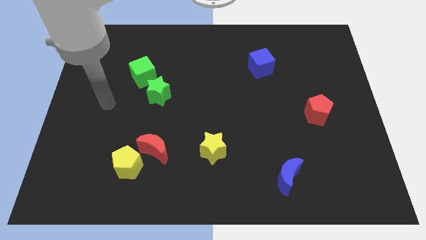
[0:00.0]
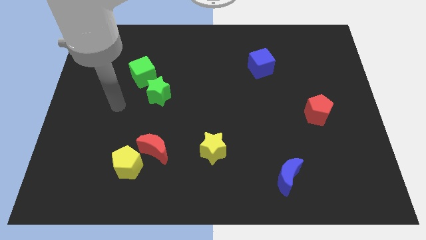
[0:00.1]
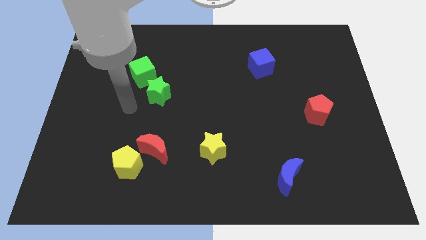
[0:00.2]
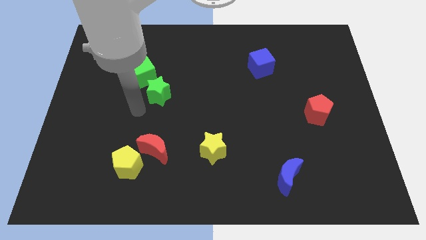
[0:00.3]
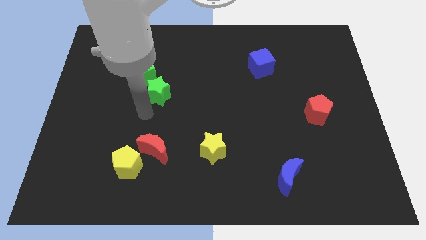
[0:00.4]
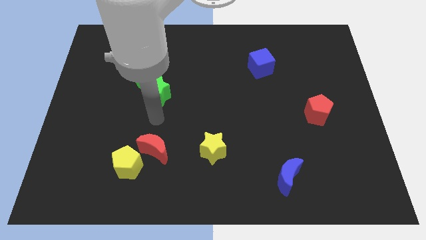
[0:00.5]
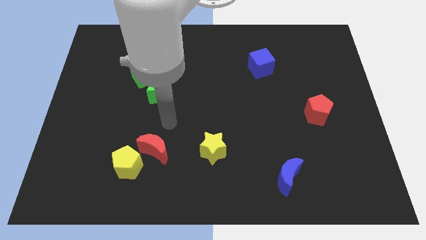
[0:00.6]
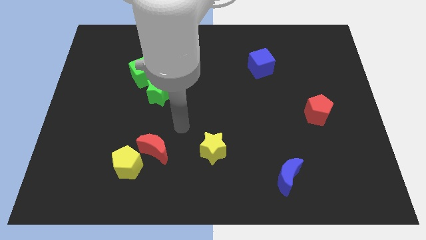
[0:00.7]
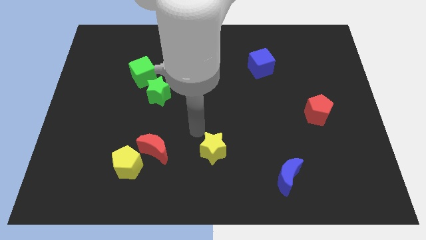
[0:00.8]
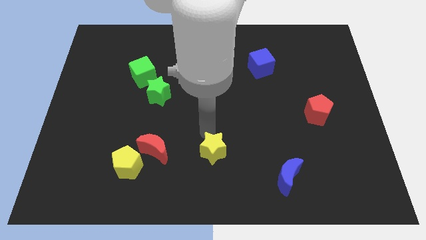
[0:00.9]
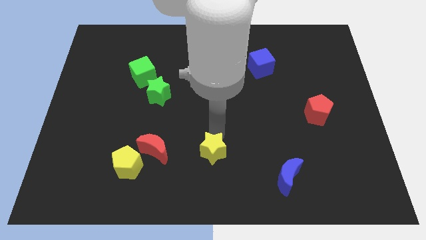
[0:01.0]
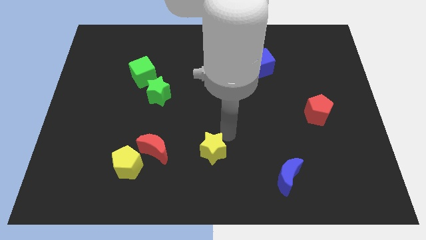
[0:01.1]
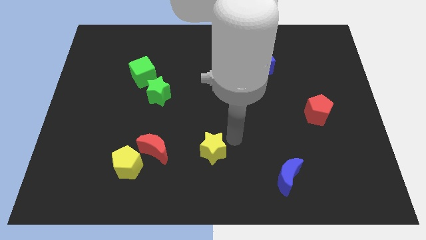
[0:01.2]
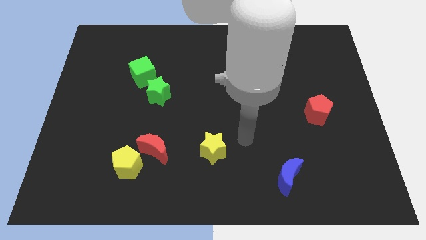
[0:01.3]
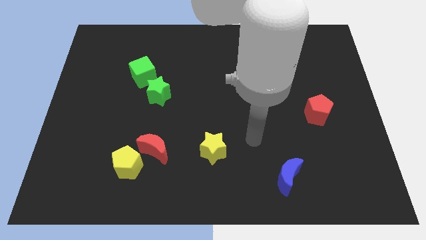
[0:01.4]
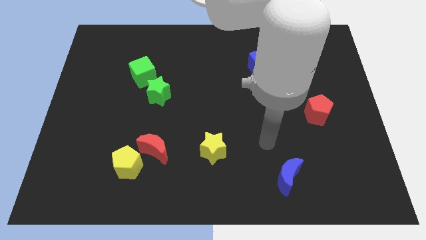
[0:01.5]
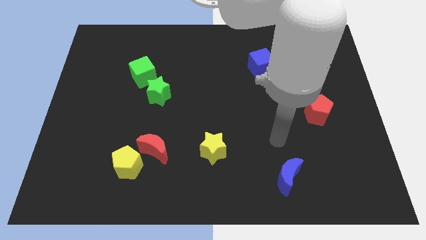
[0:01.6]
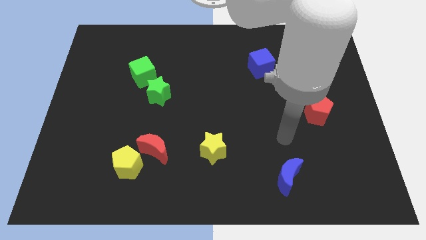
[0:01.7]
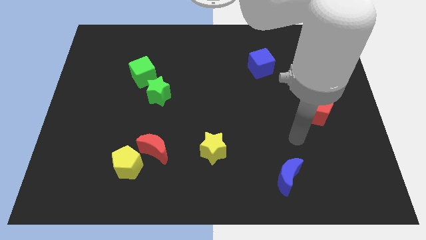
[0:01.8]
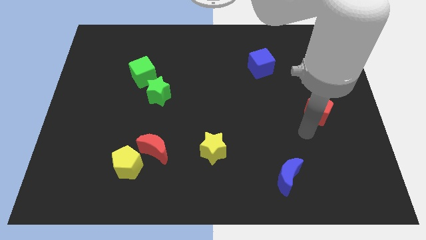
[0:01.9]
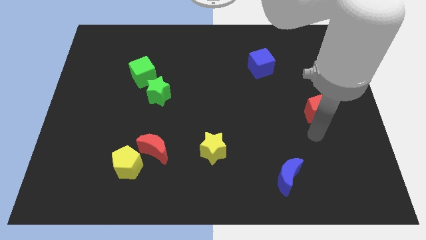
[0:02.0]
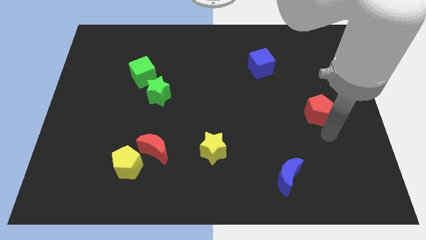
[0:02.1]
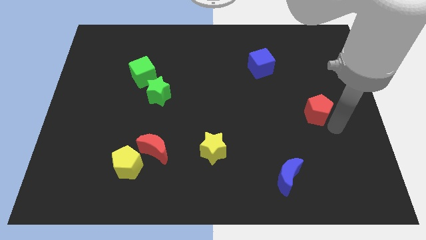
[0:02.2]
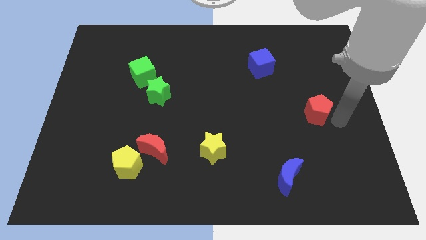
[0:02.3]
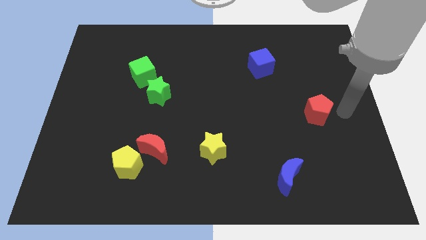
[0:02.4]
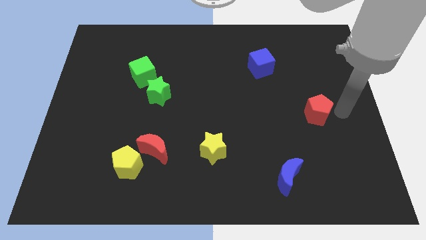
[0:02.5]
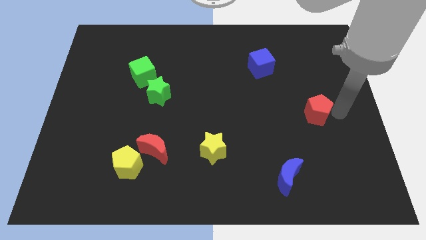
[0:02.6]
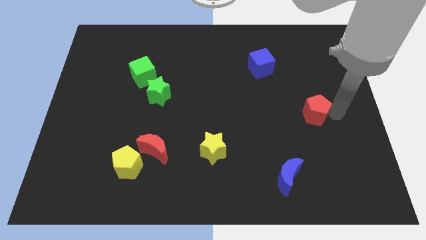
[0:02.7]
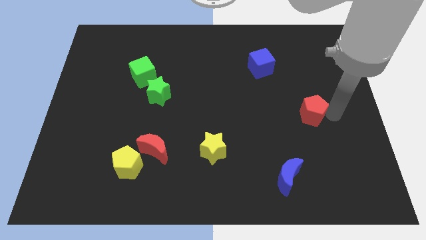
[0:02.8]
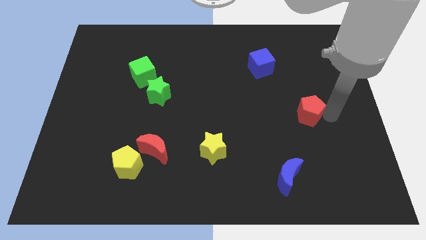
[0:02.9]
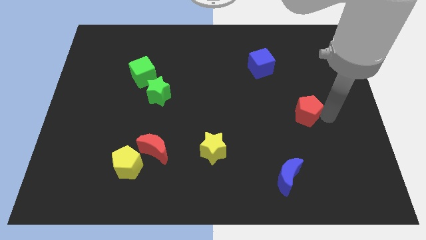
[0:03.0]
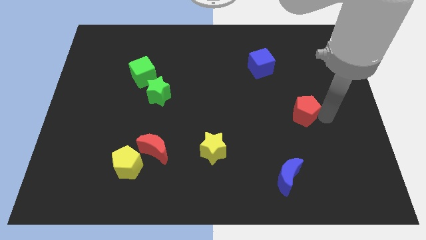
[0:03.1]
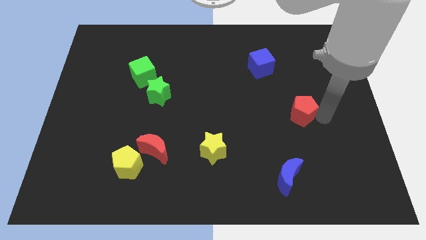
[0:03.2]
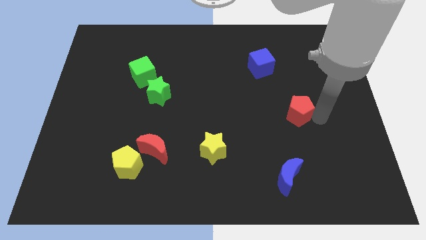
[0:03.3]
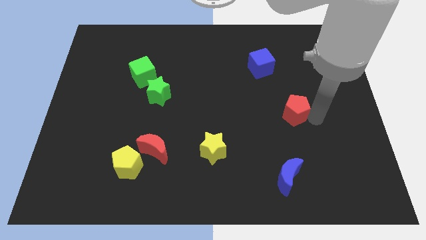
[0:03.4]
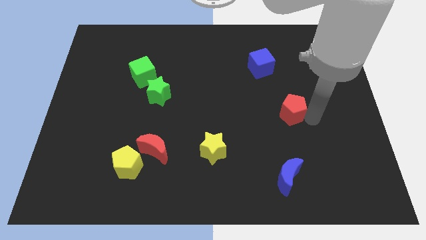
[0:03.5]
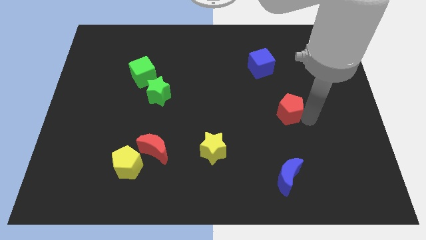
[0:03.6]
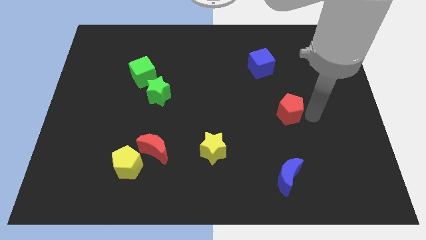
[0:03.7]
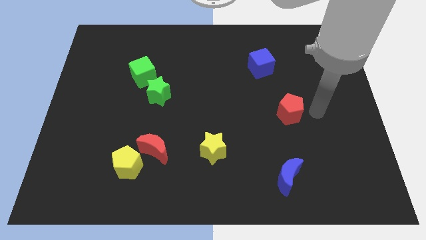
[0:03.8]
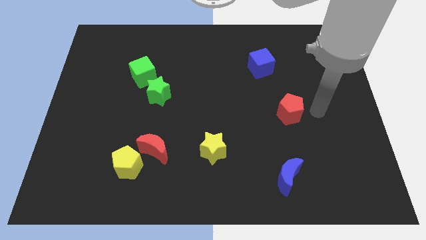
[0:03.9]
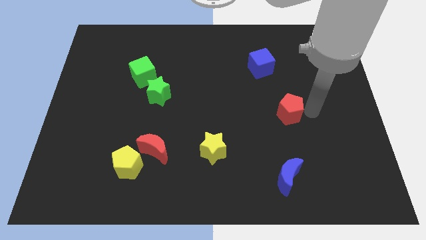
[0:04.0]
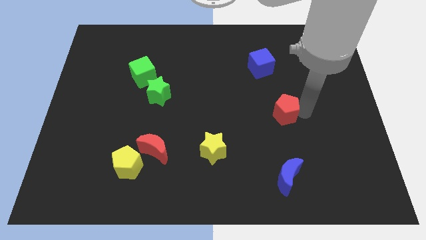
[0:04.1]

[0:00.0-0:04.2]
slightly push the red pentagon to the left

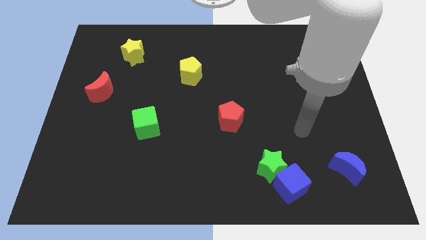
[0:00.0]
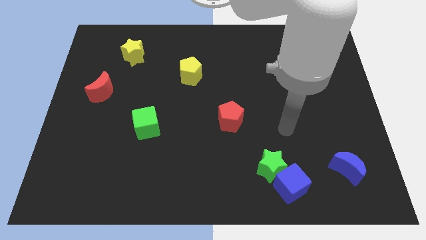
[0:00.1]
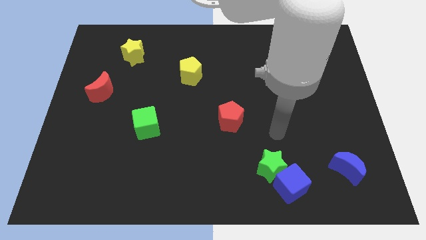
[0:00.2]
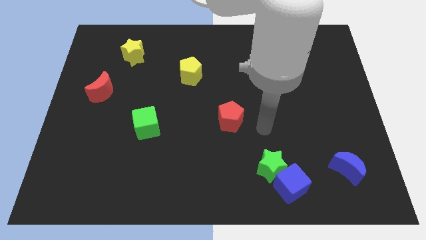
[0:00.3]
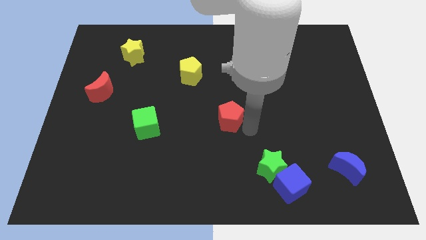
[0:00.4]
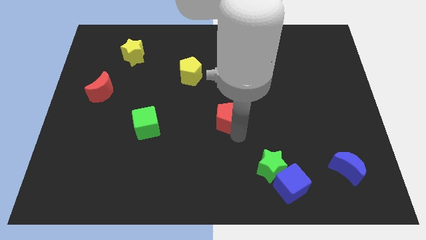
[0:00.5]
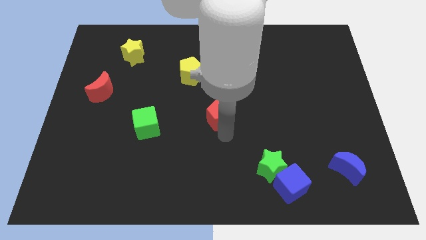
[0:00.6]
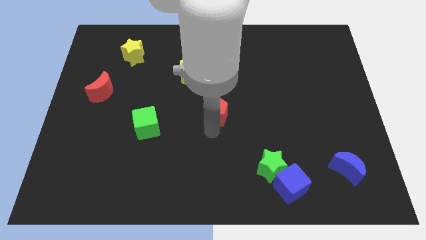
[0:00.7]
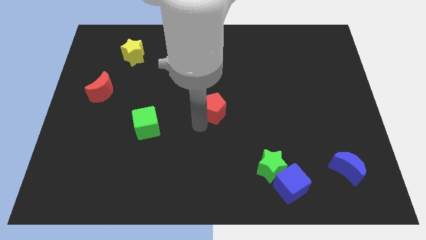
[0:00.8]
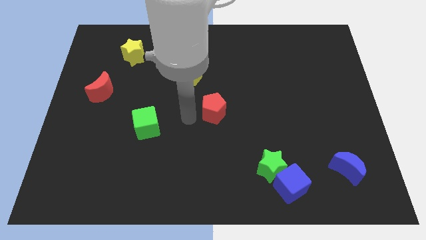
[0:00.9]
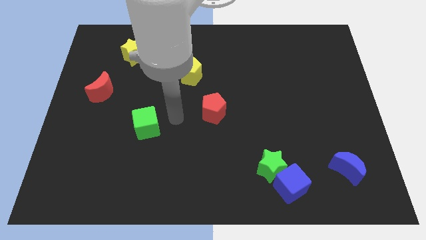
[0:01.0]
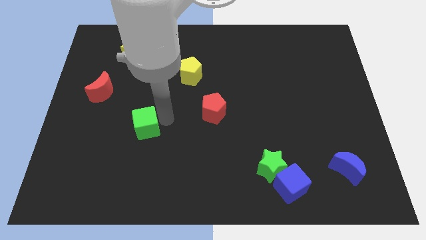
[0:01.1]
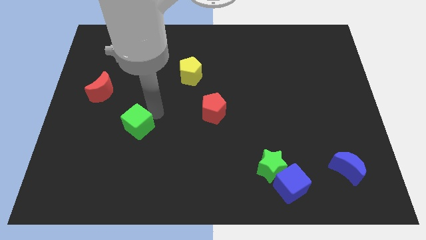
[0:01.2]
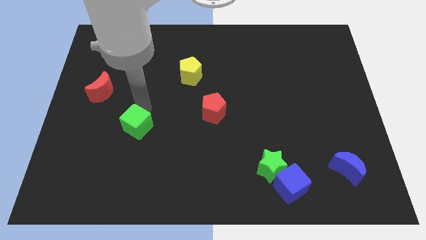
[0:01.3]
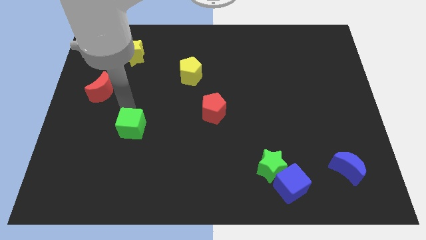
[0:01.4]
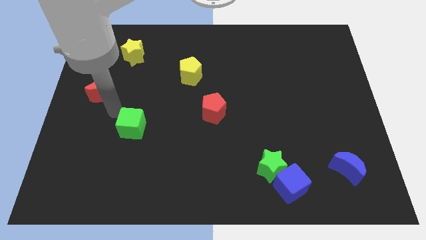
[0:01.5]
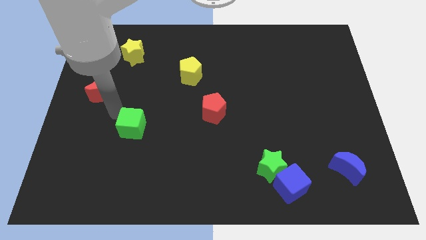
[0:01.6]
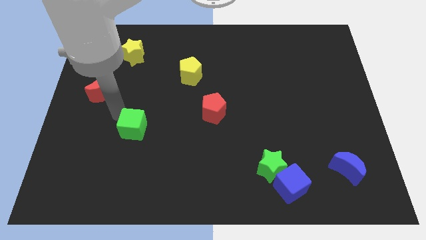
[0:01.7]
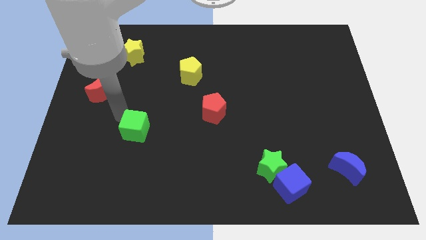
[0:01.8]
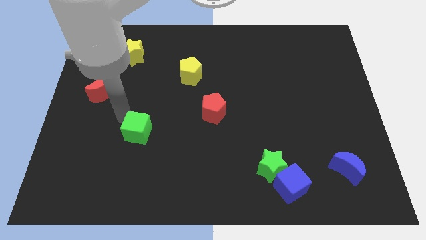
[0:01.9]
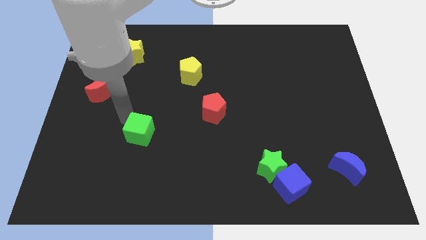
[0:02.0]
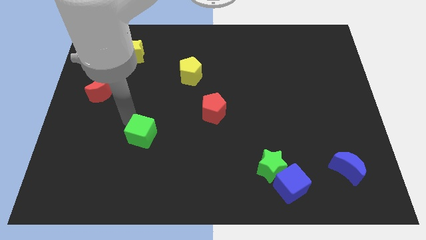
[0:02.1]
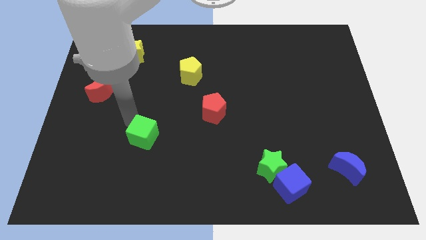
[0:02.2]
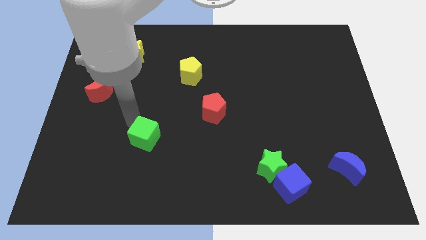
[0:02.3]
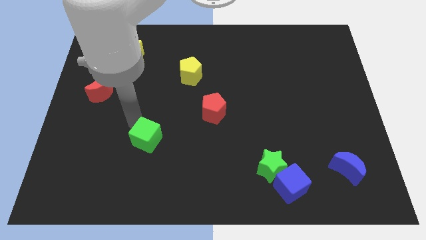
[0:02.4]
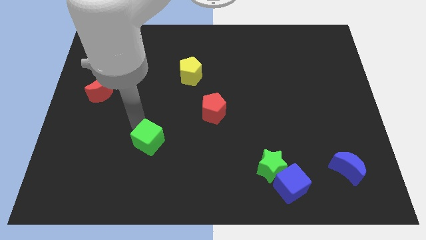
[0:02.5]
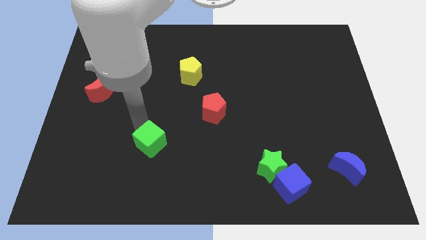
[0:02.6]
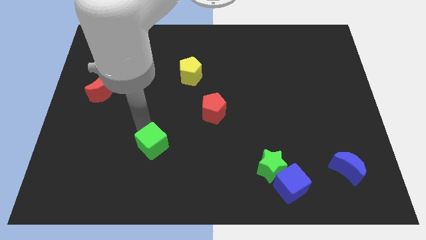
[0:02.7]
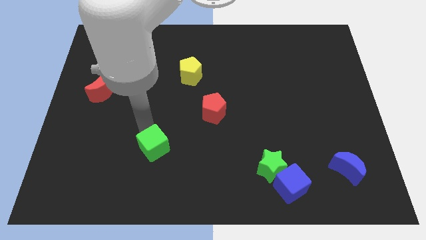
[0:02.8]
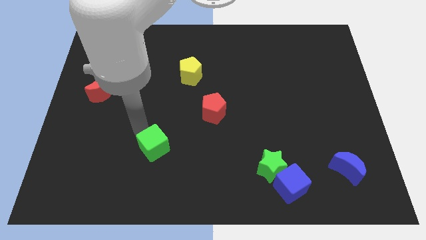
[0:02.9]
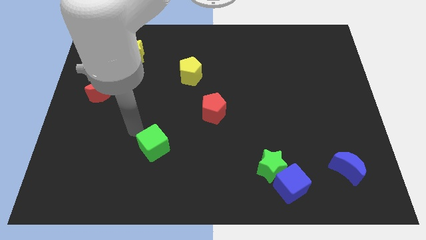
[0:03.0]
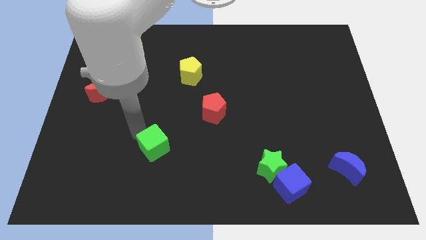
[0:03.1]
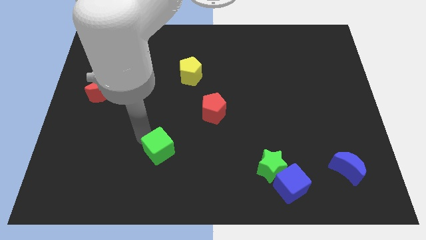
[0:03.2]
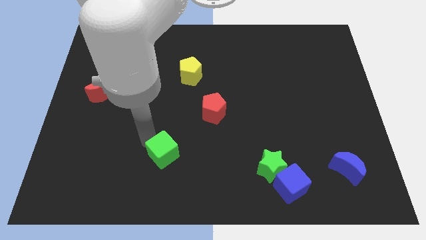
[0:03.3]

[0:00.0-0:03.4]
slightly push the green cube diagonally down and to the right
